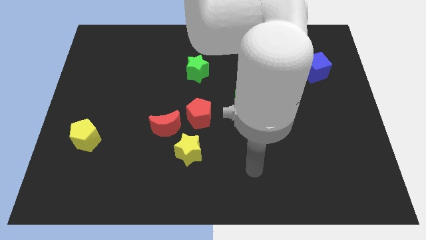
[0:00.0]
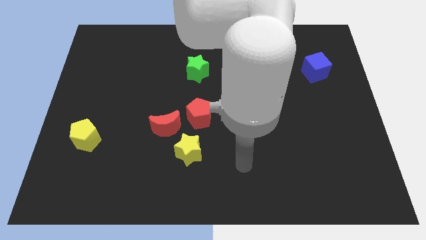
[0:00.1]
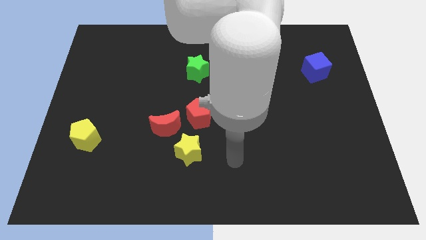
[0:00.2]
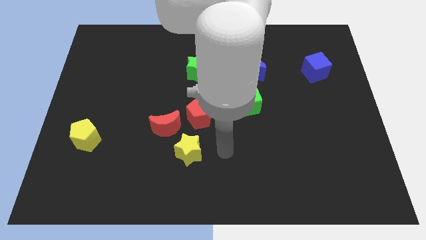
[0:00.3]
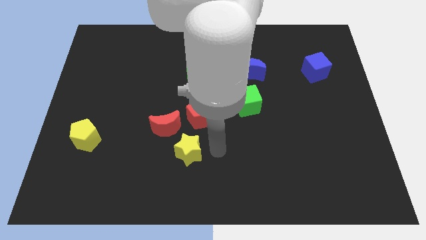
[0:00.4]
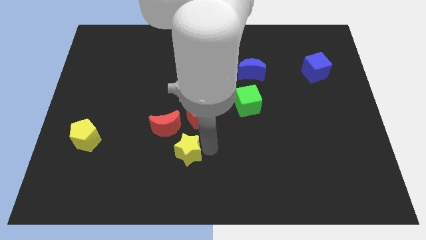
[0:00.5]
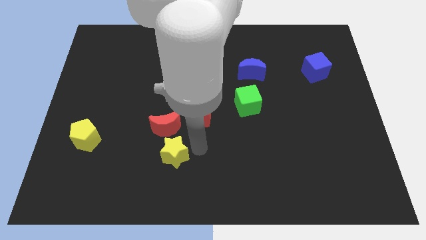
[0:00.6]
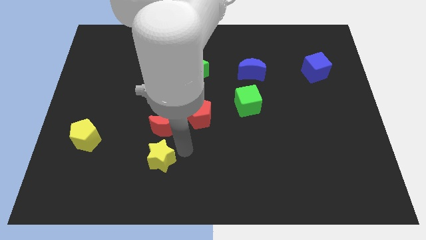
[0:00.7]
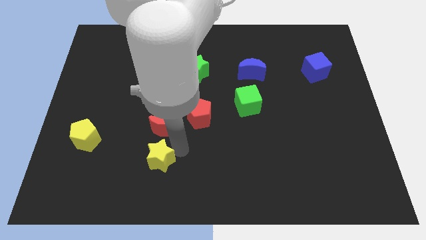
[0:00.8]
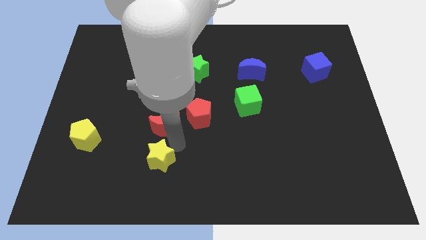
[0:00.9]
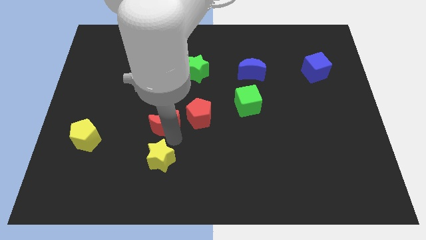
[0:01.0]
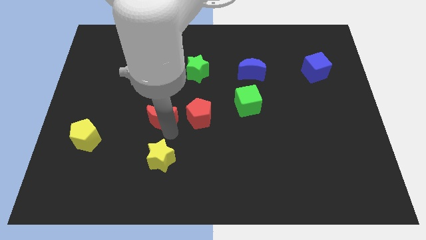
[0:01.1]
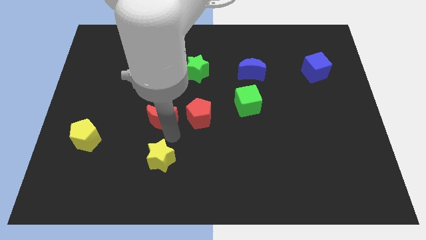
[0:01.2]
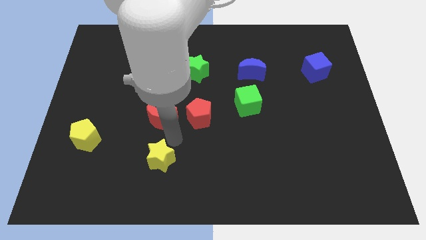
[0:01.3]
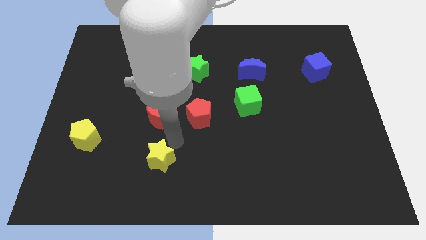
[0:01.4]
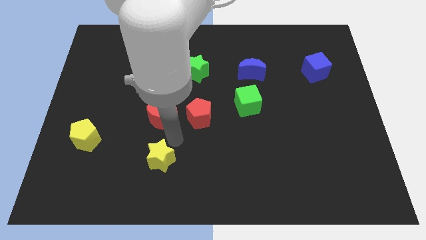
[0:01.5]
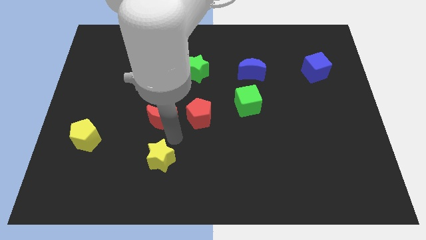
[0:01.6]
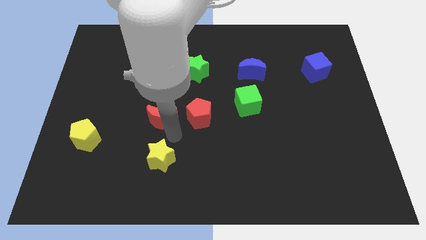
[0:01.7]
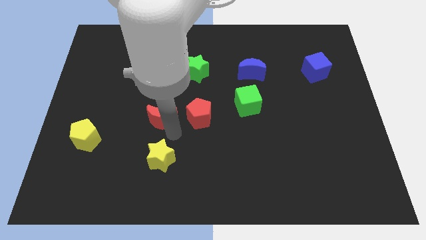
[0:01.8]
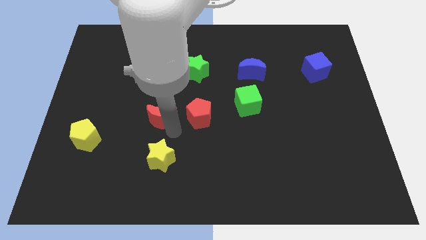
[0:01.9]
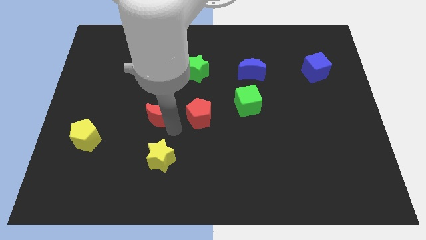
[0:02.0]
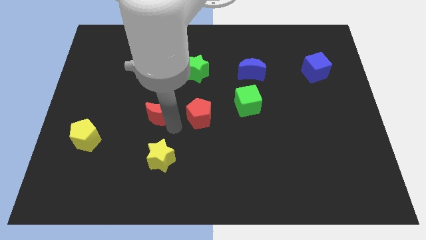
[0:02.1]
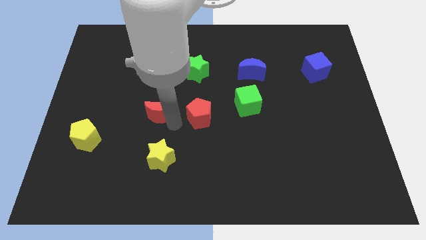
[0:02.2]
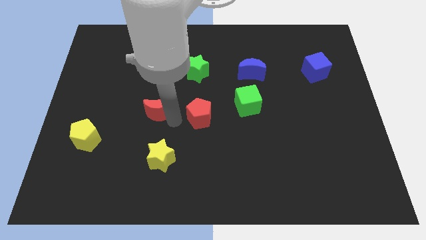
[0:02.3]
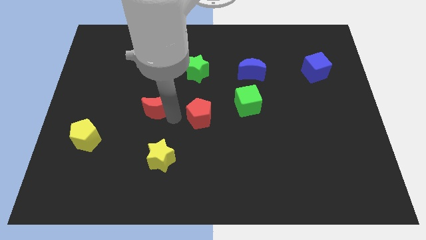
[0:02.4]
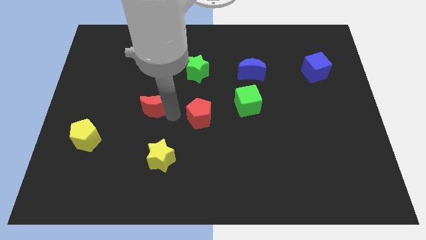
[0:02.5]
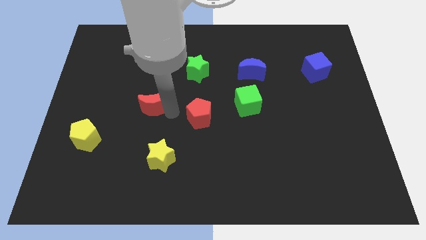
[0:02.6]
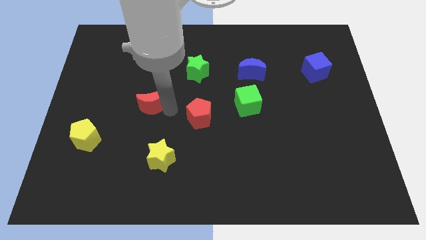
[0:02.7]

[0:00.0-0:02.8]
move the red moon a little bit diagonally up and left

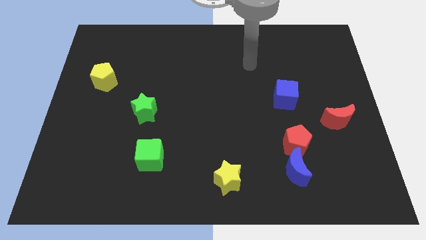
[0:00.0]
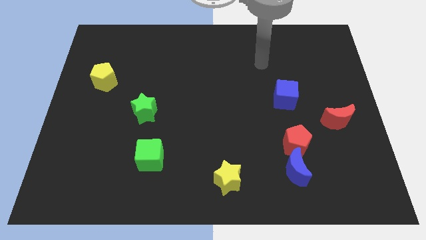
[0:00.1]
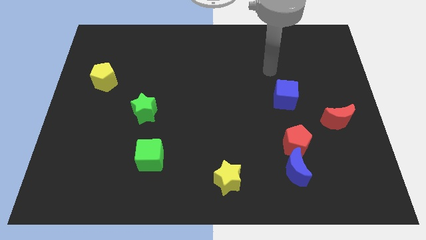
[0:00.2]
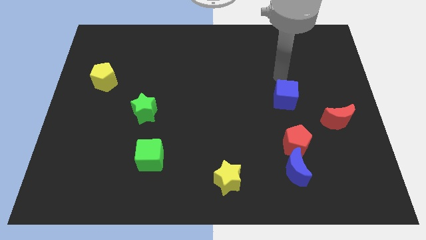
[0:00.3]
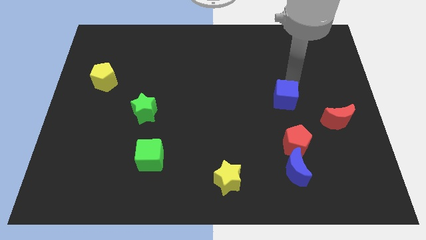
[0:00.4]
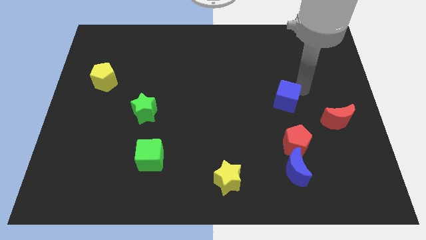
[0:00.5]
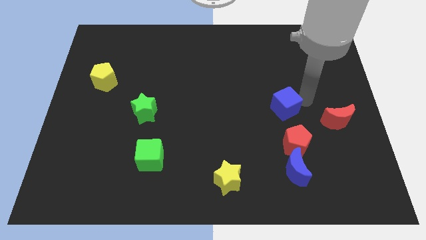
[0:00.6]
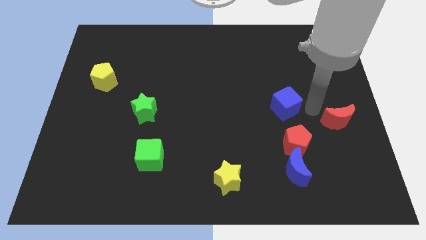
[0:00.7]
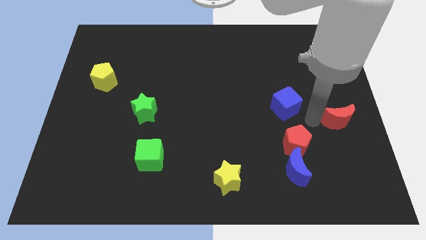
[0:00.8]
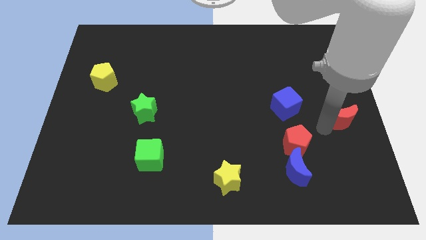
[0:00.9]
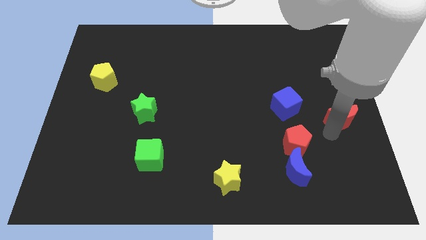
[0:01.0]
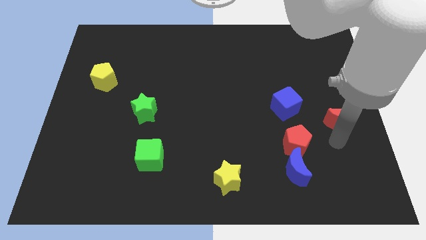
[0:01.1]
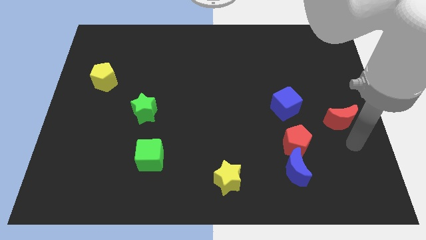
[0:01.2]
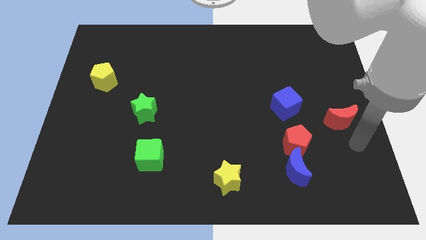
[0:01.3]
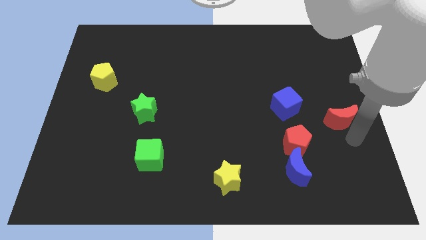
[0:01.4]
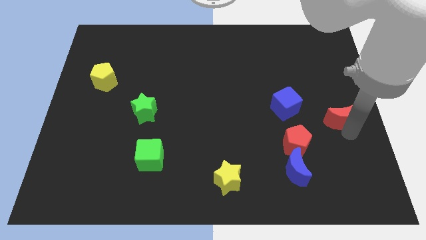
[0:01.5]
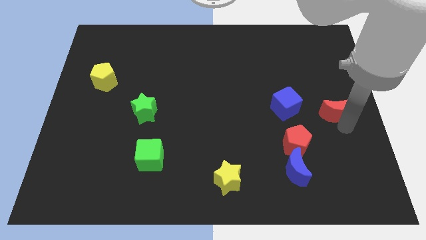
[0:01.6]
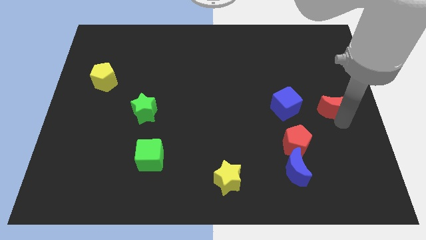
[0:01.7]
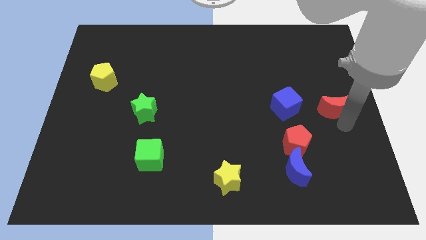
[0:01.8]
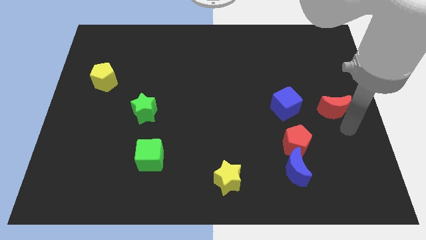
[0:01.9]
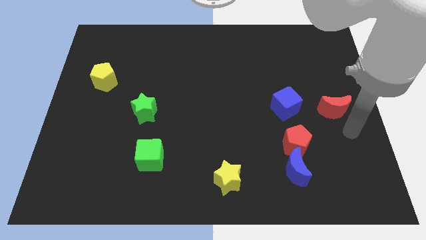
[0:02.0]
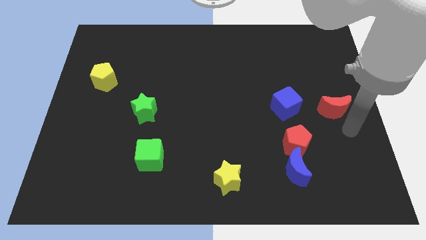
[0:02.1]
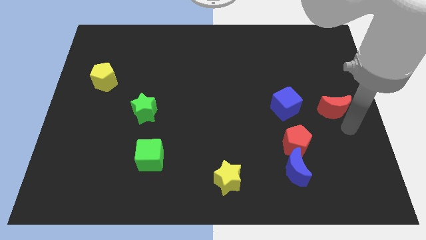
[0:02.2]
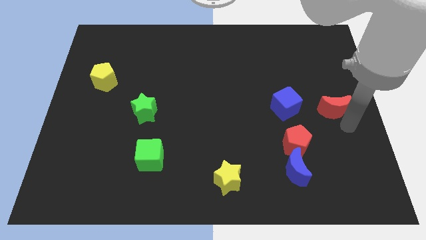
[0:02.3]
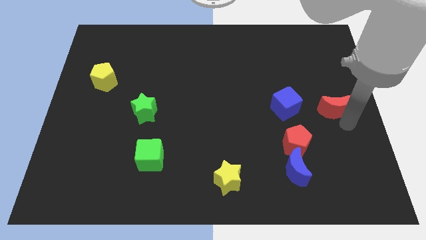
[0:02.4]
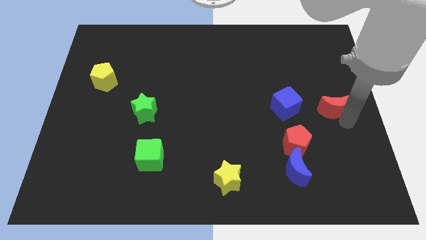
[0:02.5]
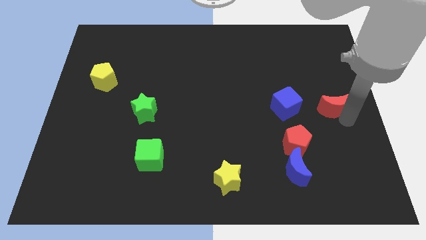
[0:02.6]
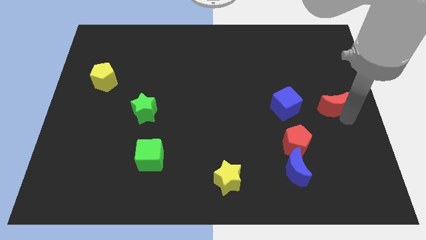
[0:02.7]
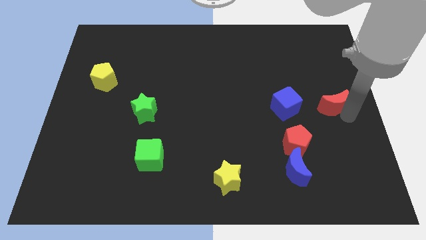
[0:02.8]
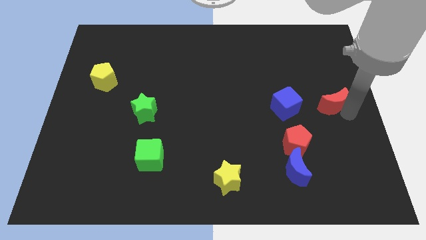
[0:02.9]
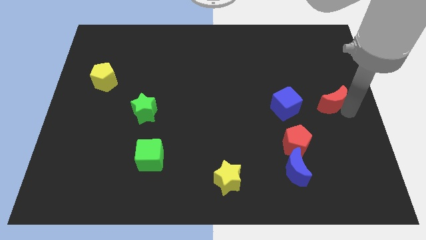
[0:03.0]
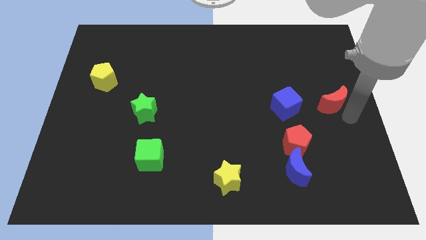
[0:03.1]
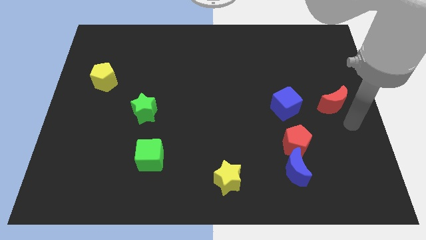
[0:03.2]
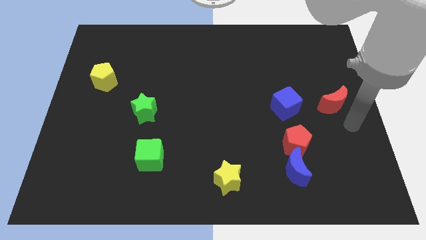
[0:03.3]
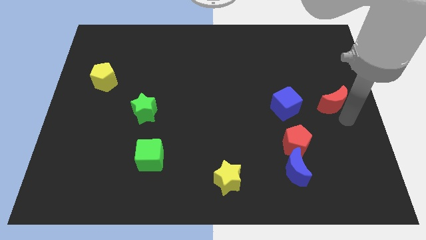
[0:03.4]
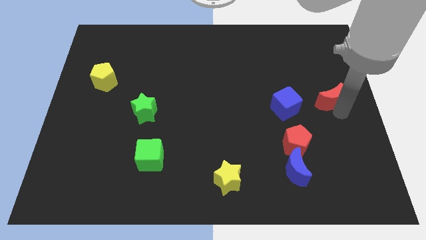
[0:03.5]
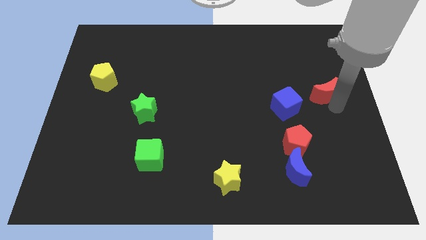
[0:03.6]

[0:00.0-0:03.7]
slide the red moon upwards slightly

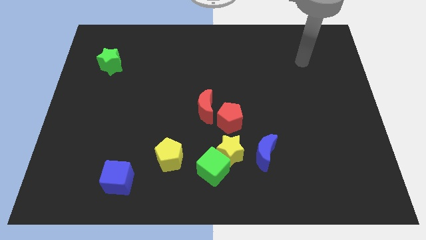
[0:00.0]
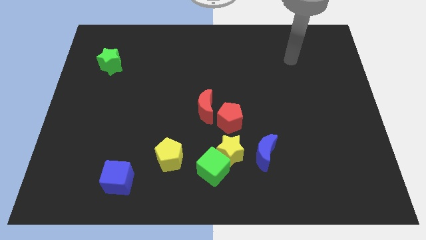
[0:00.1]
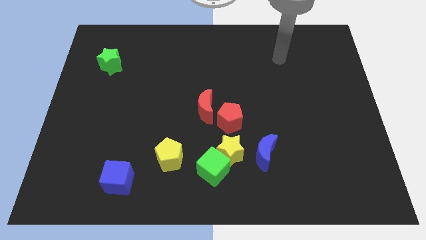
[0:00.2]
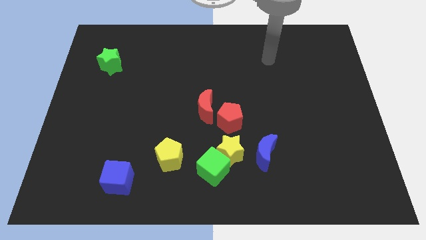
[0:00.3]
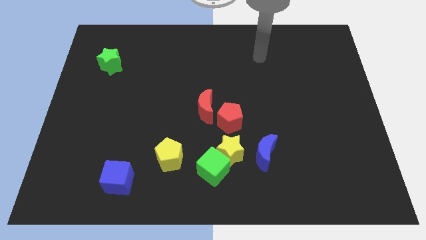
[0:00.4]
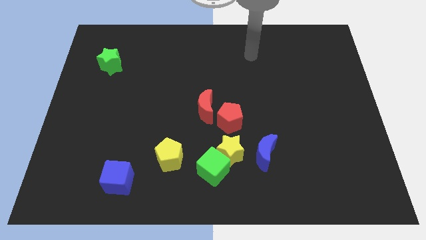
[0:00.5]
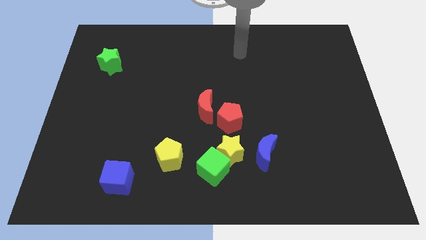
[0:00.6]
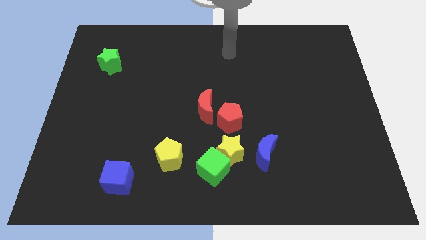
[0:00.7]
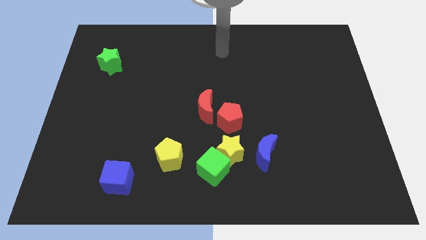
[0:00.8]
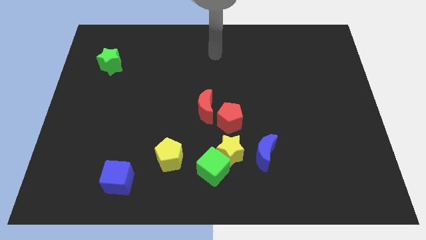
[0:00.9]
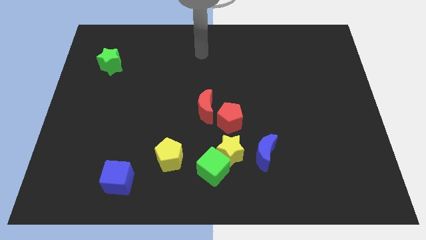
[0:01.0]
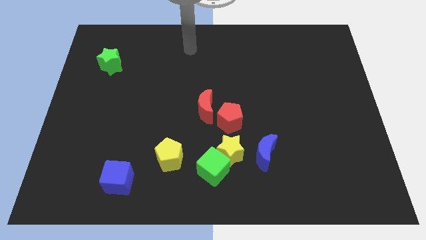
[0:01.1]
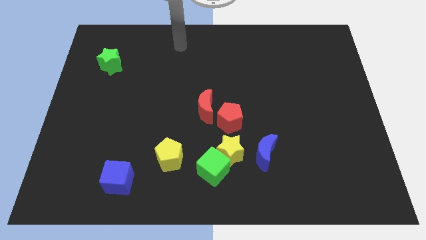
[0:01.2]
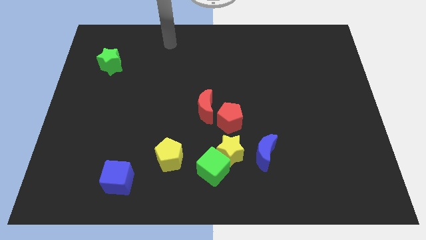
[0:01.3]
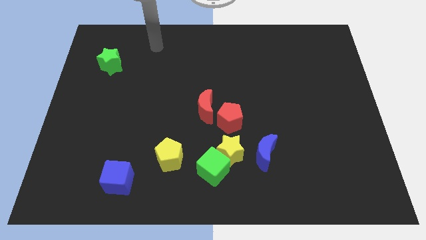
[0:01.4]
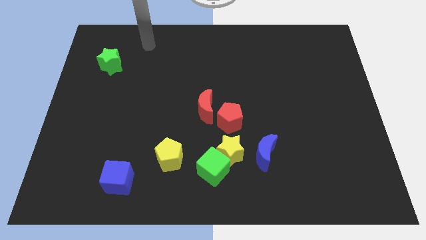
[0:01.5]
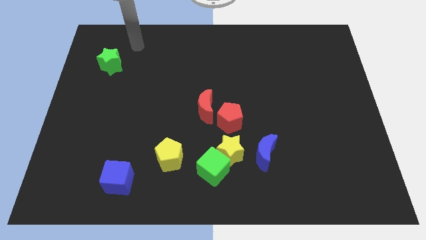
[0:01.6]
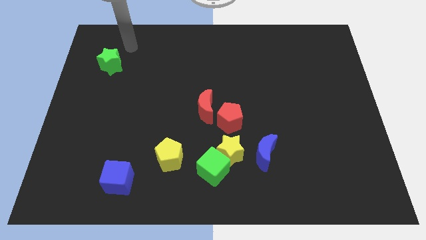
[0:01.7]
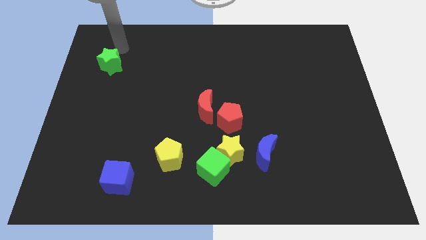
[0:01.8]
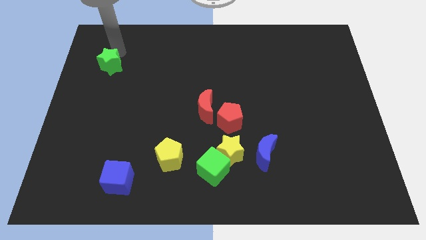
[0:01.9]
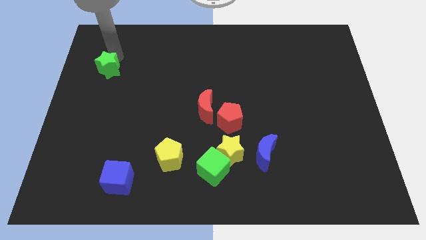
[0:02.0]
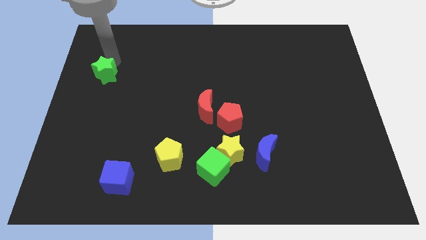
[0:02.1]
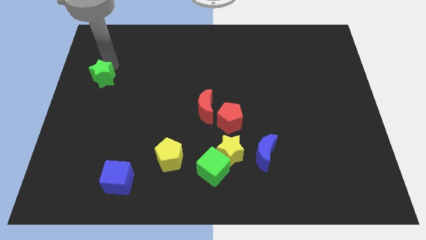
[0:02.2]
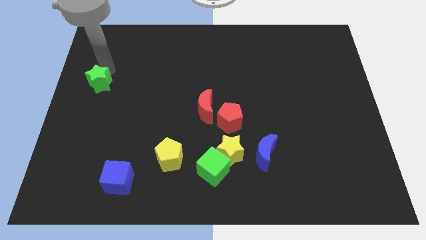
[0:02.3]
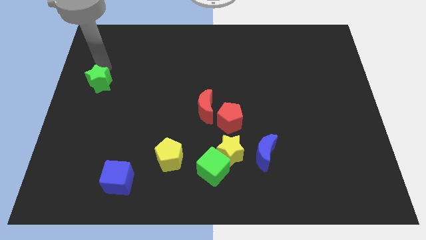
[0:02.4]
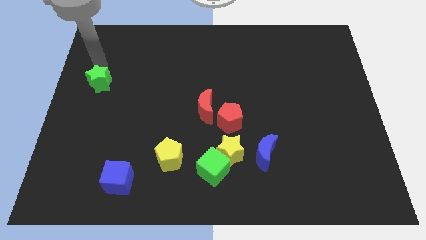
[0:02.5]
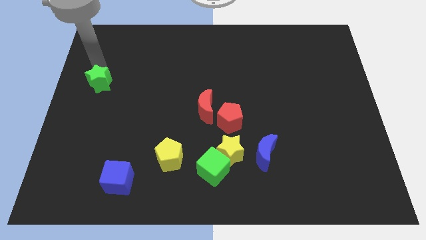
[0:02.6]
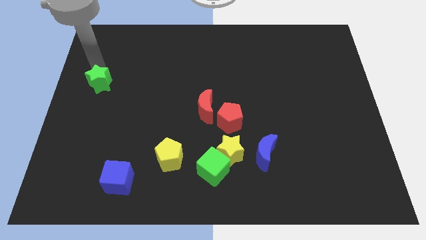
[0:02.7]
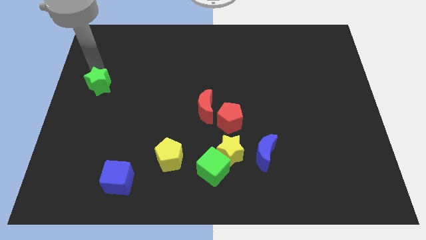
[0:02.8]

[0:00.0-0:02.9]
slightly push the green star downwards
